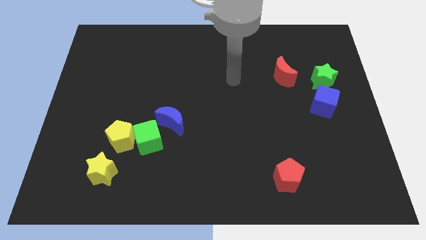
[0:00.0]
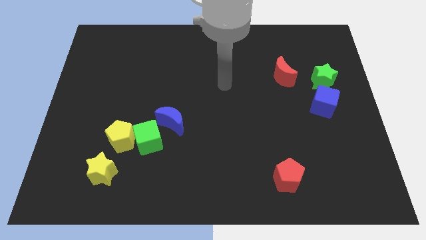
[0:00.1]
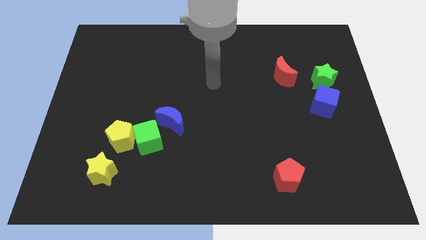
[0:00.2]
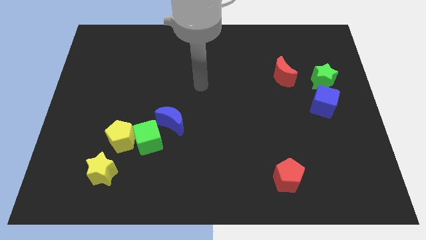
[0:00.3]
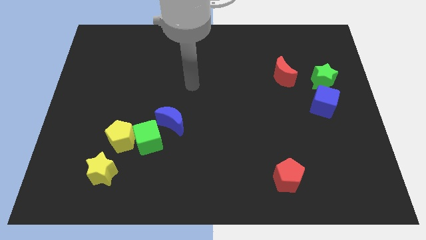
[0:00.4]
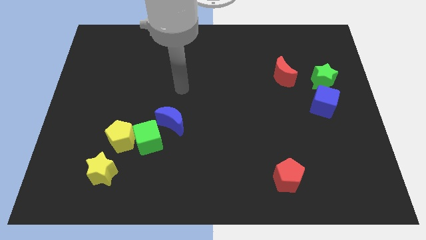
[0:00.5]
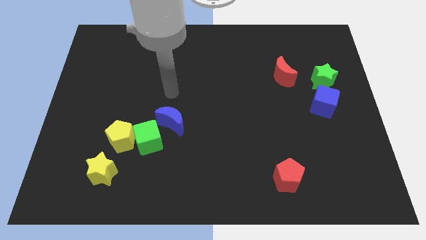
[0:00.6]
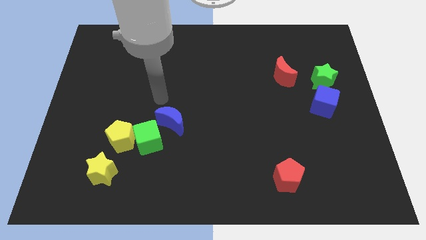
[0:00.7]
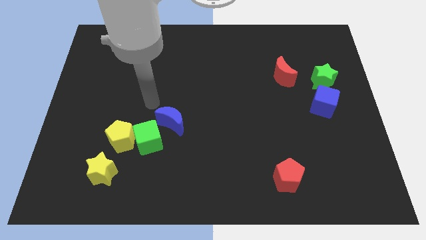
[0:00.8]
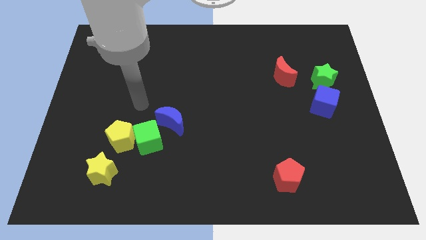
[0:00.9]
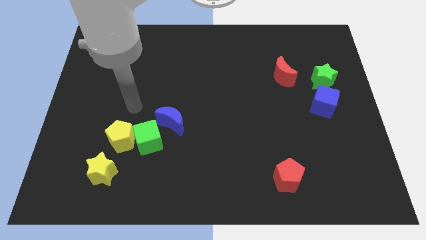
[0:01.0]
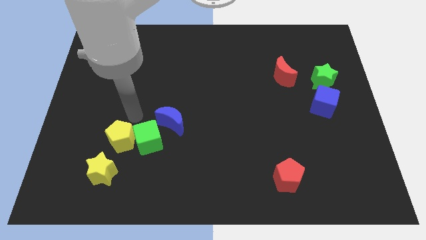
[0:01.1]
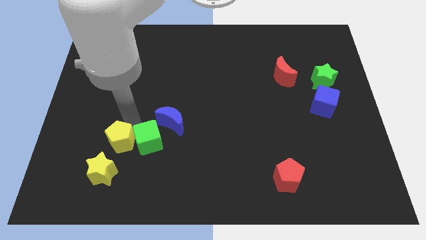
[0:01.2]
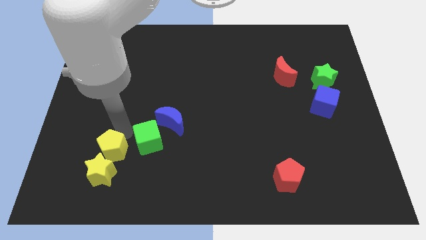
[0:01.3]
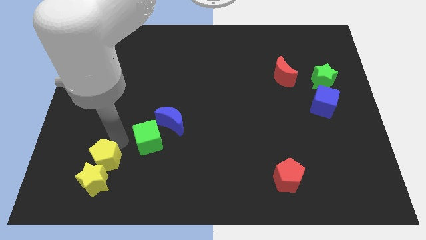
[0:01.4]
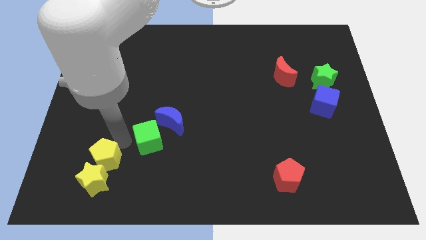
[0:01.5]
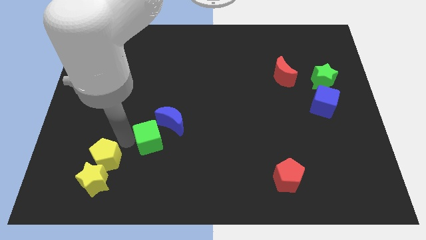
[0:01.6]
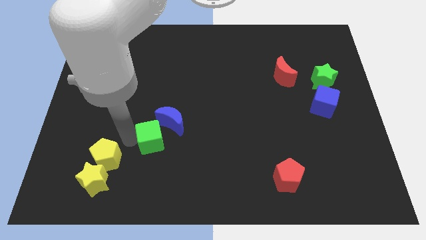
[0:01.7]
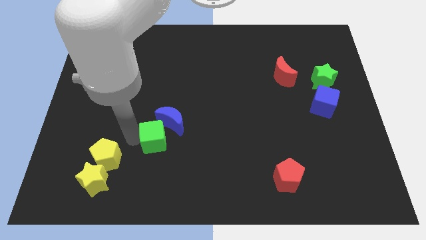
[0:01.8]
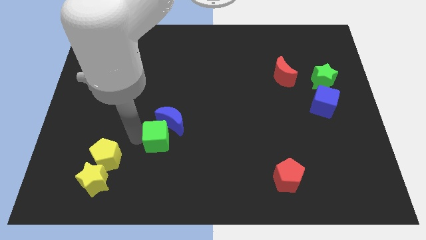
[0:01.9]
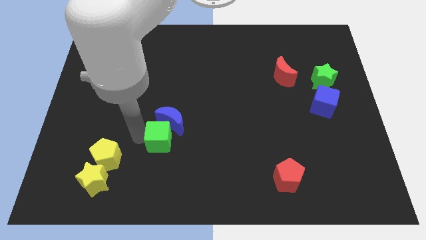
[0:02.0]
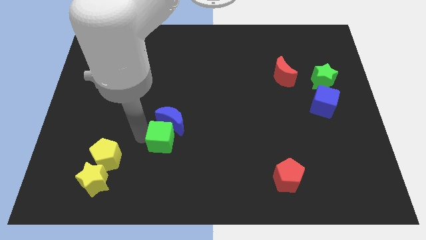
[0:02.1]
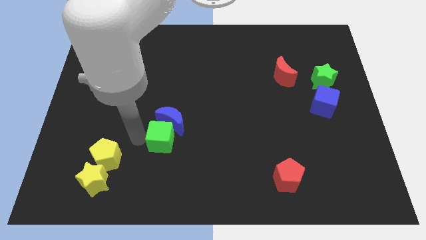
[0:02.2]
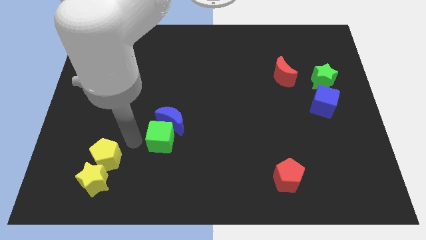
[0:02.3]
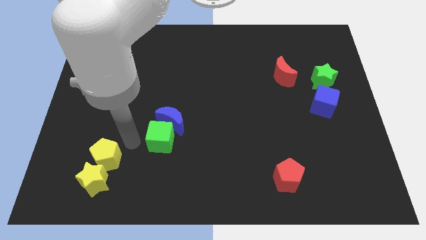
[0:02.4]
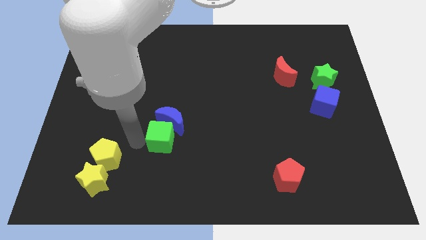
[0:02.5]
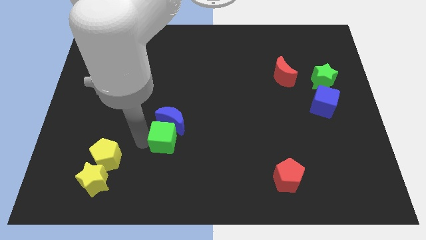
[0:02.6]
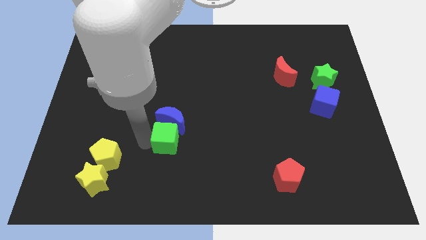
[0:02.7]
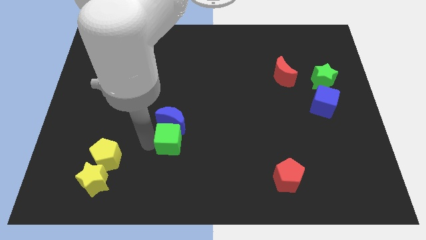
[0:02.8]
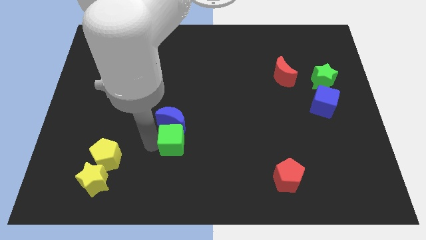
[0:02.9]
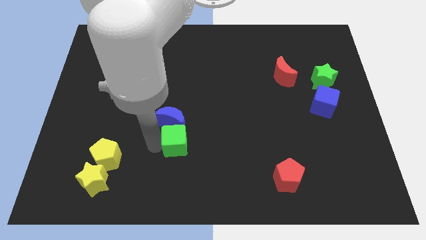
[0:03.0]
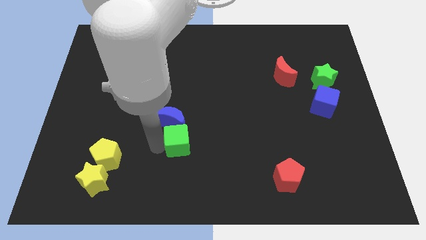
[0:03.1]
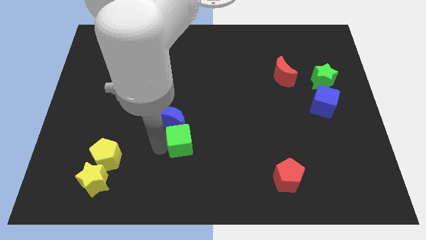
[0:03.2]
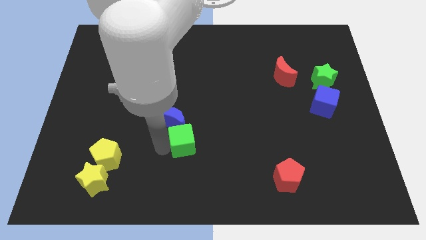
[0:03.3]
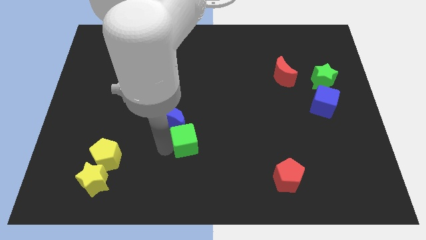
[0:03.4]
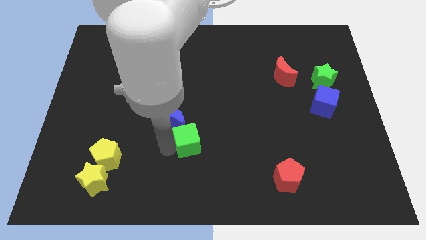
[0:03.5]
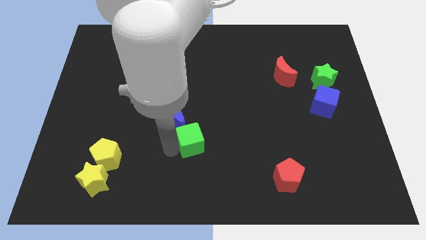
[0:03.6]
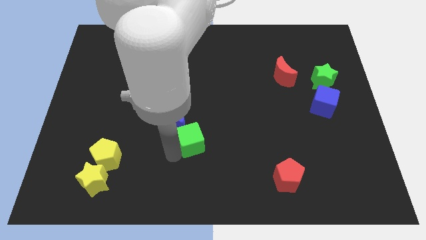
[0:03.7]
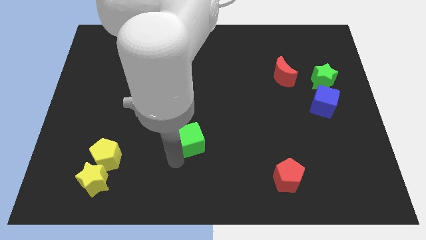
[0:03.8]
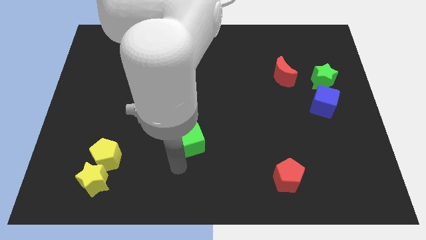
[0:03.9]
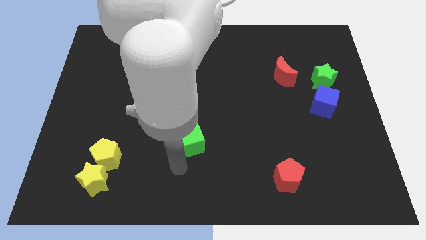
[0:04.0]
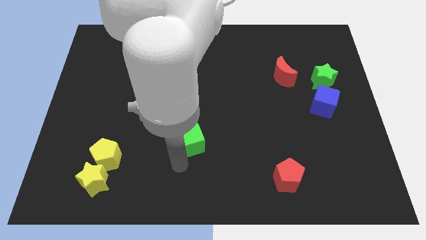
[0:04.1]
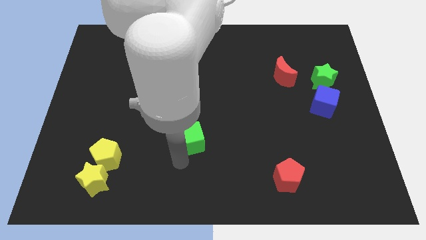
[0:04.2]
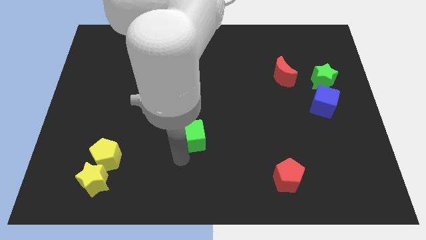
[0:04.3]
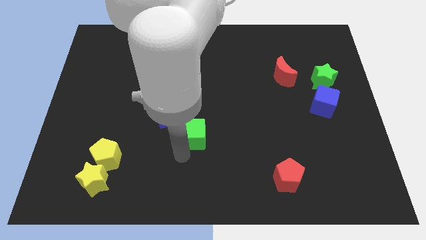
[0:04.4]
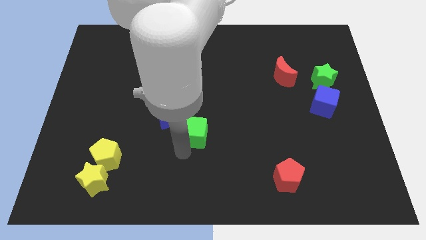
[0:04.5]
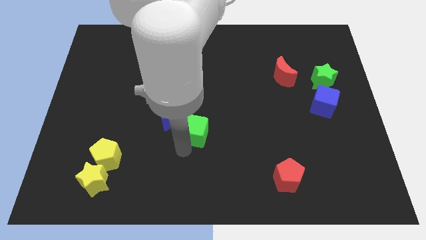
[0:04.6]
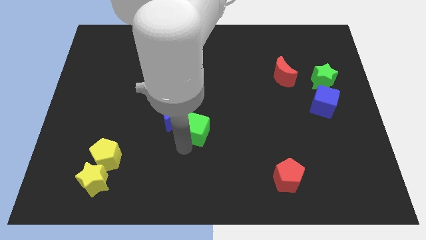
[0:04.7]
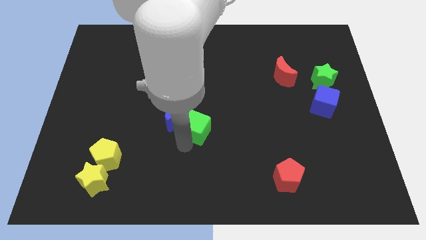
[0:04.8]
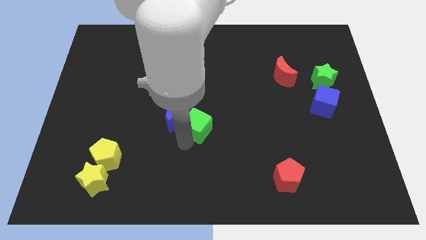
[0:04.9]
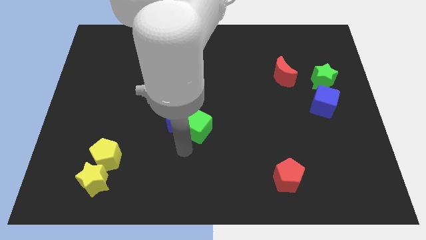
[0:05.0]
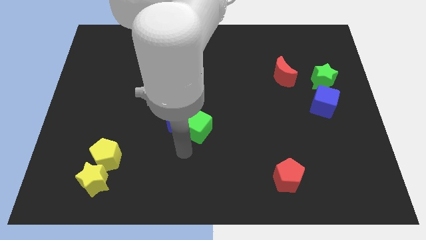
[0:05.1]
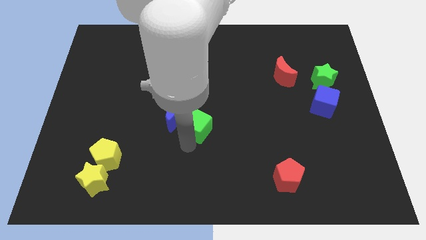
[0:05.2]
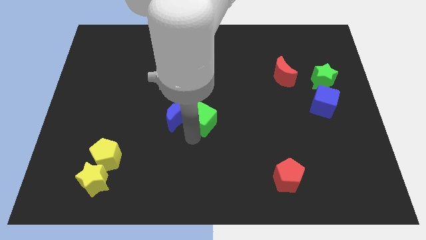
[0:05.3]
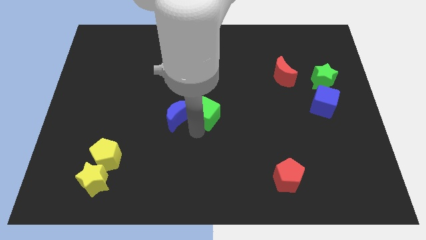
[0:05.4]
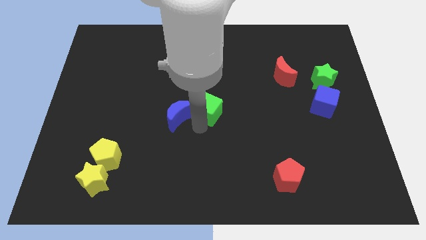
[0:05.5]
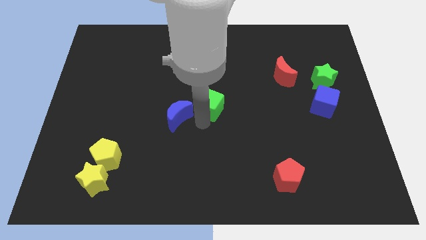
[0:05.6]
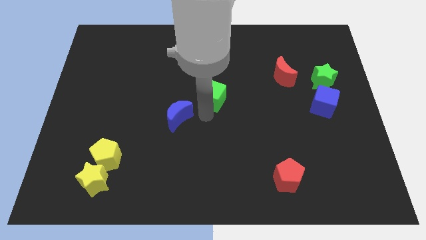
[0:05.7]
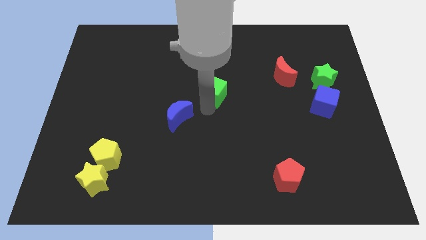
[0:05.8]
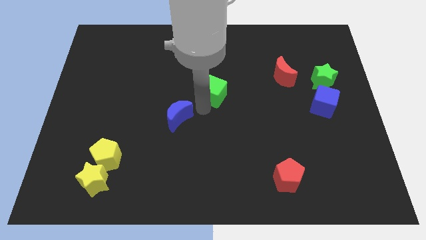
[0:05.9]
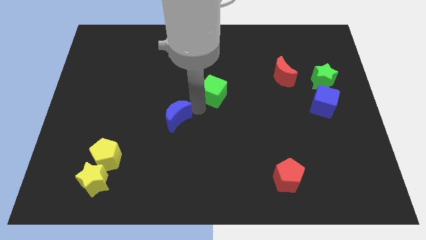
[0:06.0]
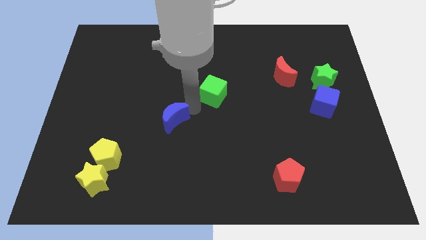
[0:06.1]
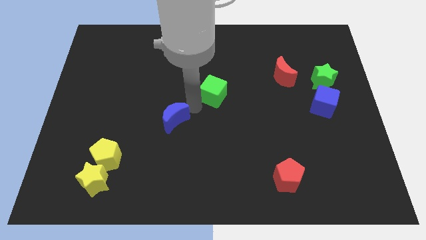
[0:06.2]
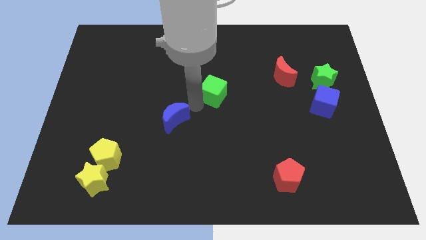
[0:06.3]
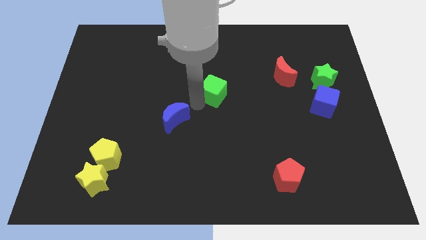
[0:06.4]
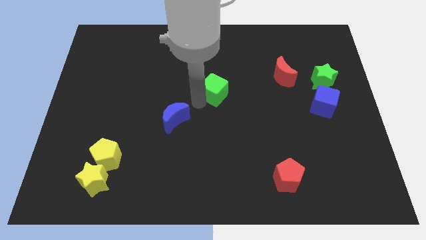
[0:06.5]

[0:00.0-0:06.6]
push the green cube upwards and right diagonally

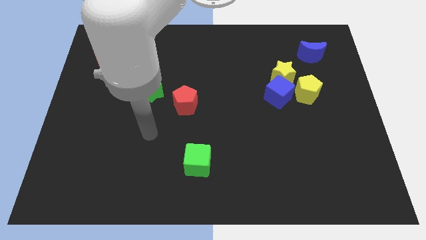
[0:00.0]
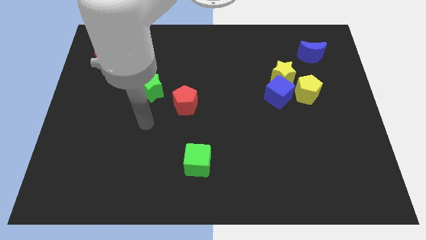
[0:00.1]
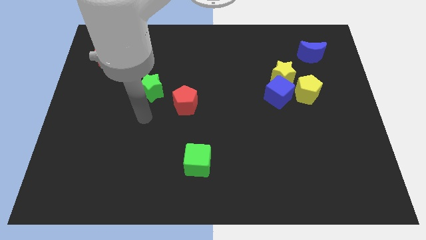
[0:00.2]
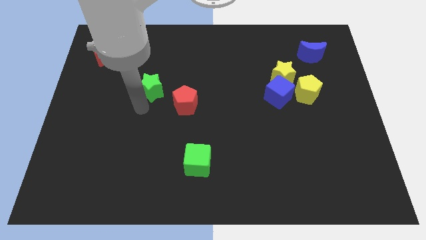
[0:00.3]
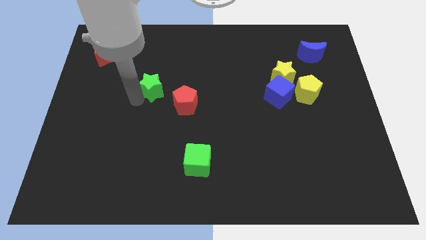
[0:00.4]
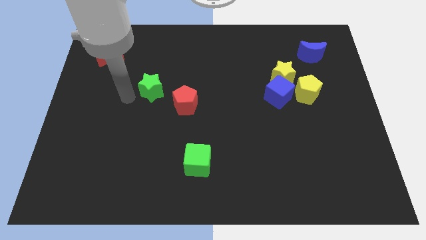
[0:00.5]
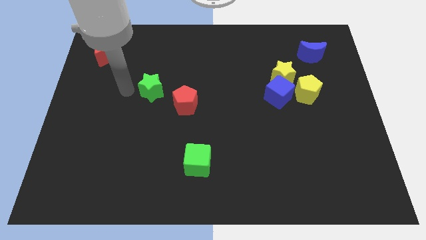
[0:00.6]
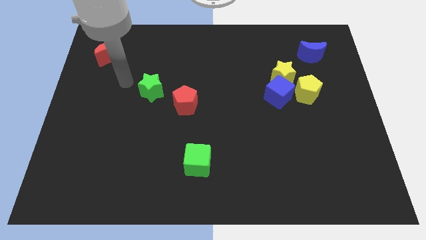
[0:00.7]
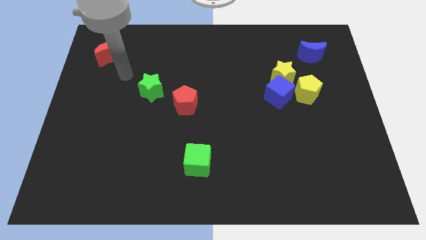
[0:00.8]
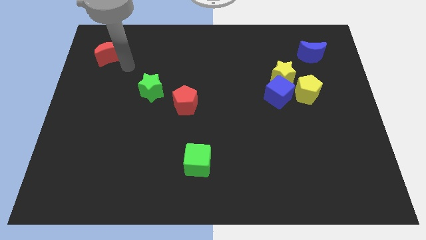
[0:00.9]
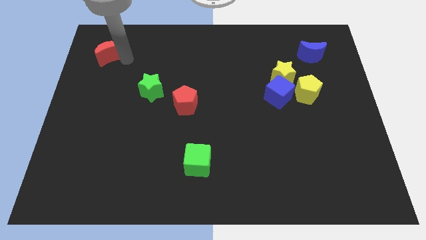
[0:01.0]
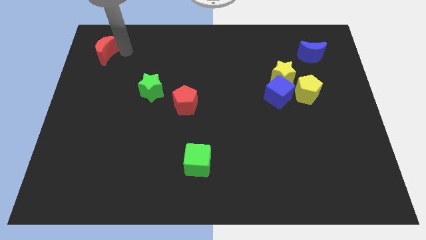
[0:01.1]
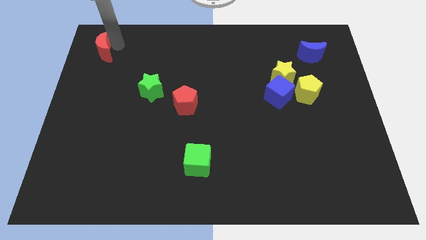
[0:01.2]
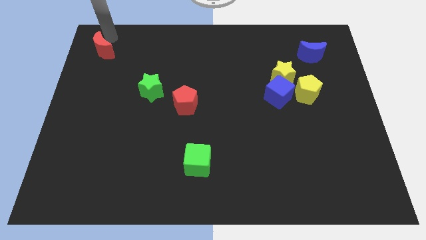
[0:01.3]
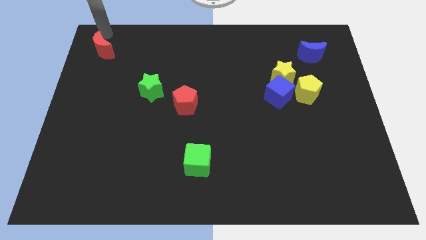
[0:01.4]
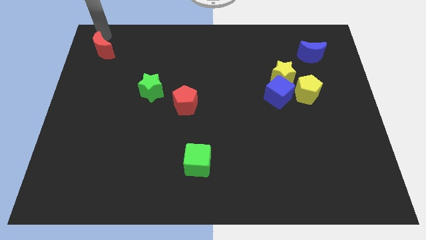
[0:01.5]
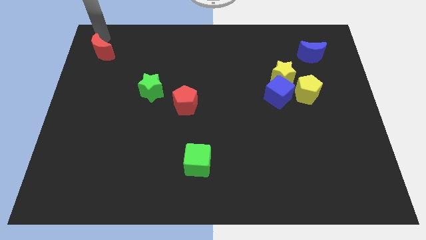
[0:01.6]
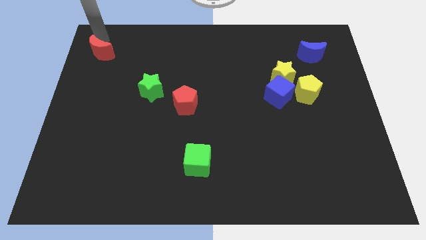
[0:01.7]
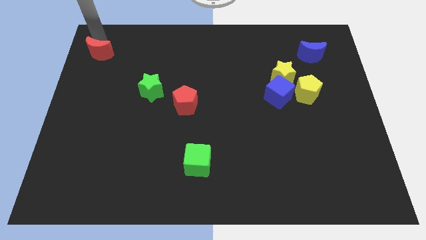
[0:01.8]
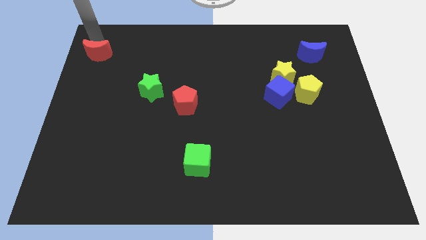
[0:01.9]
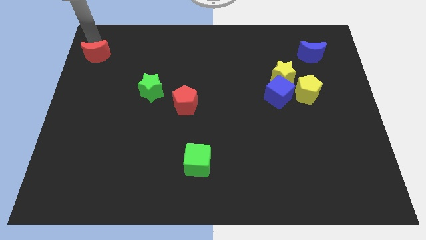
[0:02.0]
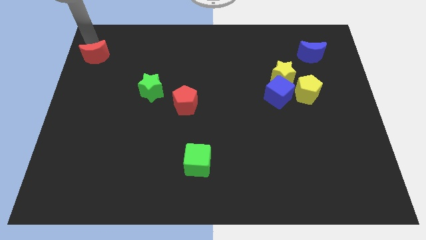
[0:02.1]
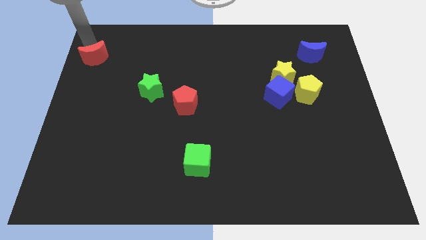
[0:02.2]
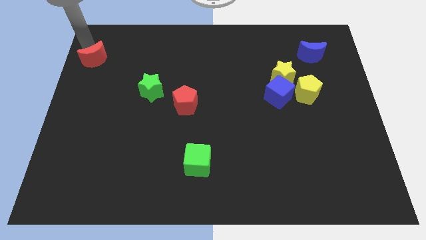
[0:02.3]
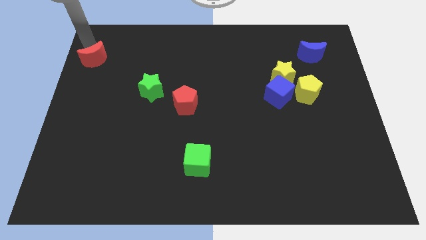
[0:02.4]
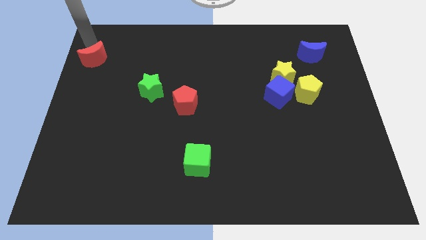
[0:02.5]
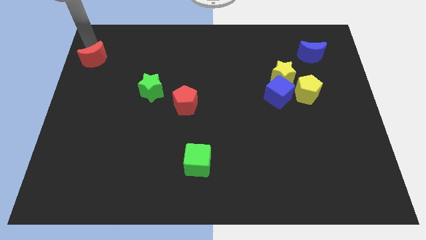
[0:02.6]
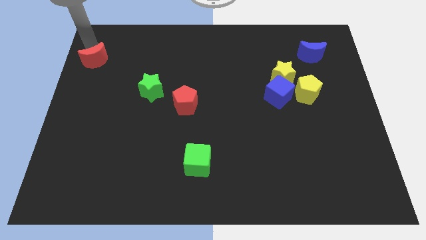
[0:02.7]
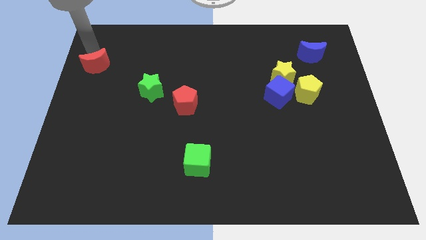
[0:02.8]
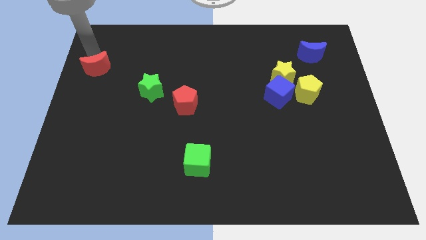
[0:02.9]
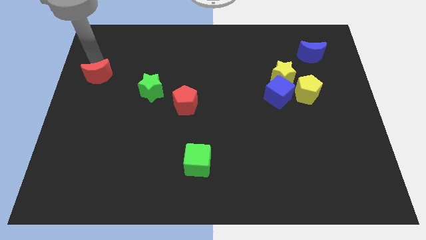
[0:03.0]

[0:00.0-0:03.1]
slide the red moon downwards slightly
